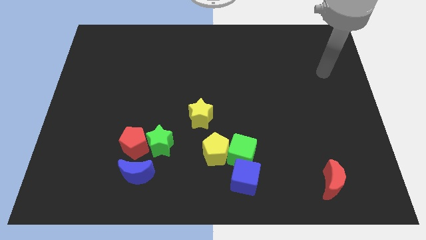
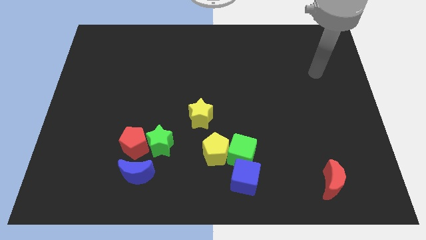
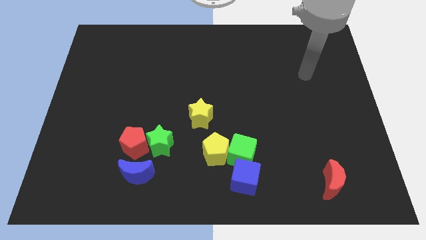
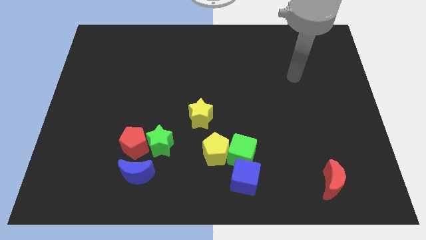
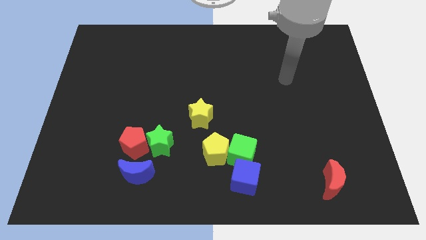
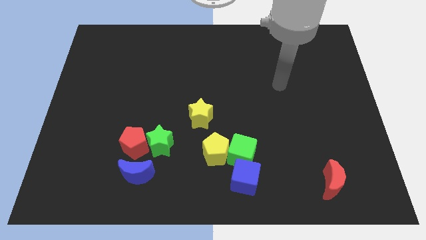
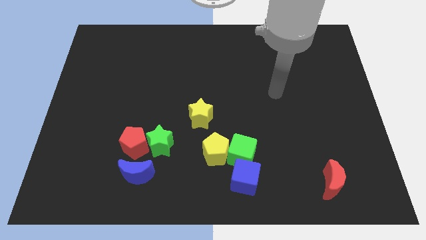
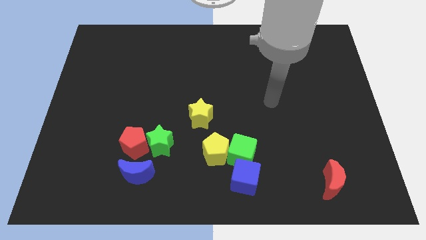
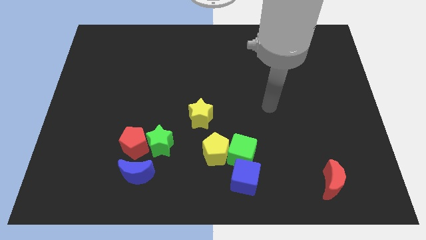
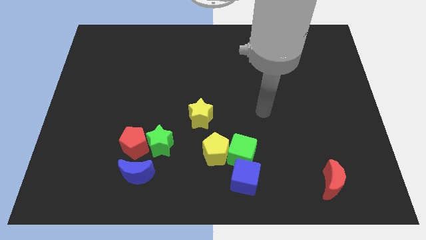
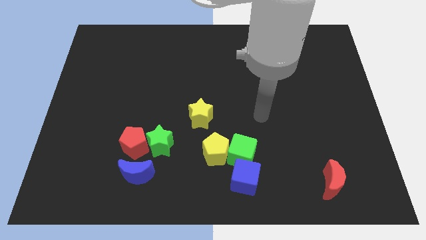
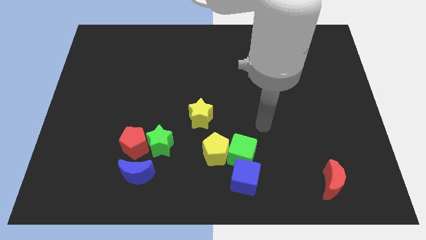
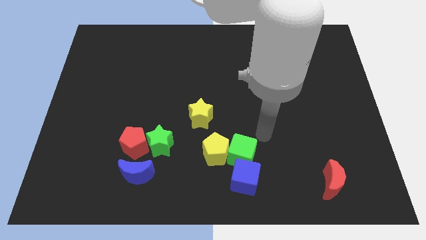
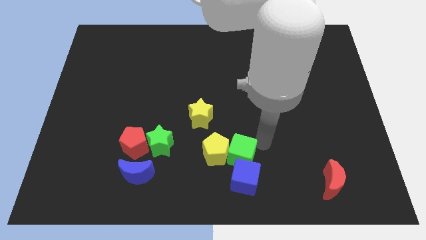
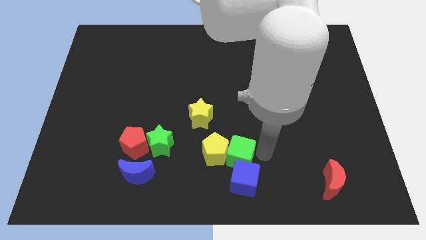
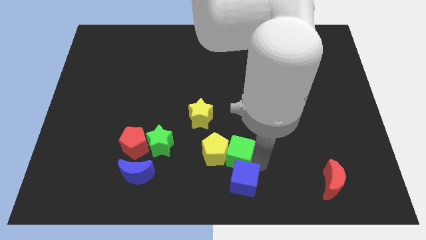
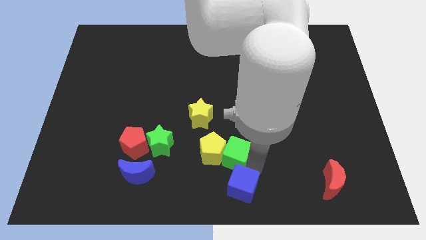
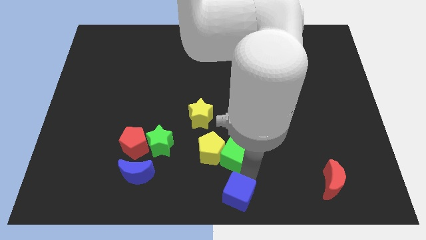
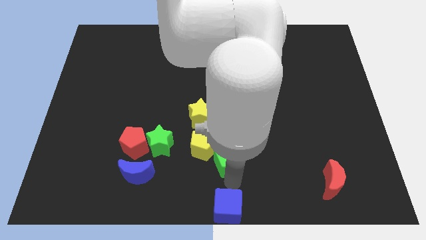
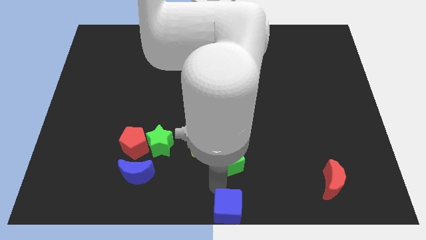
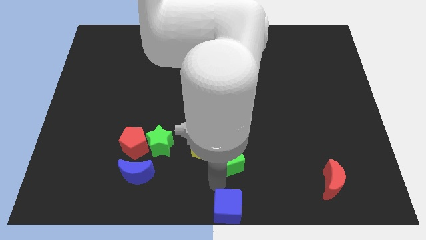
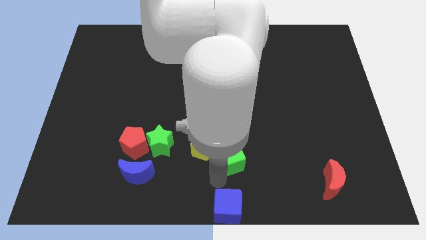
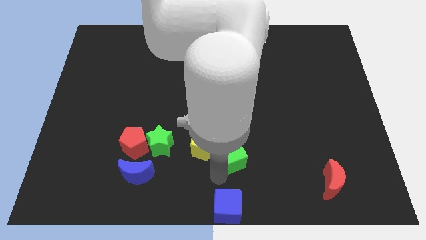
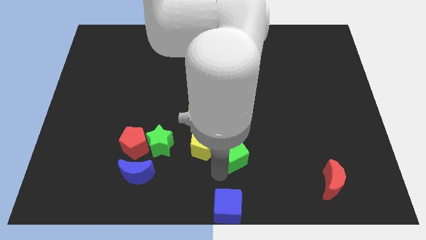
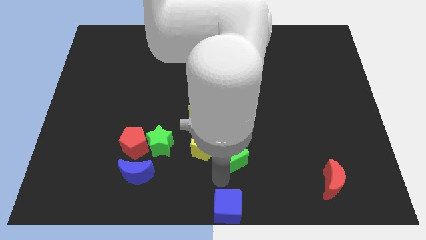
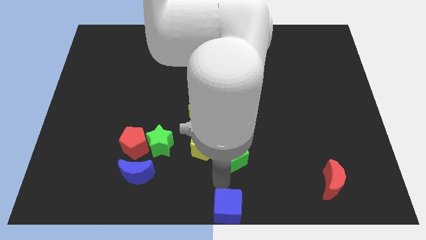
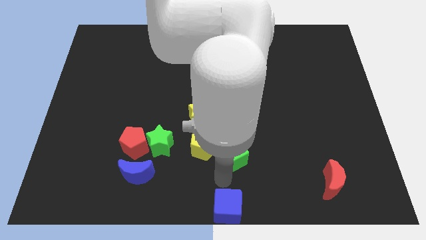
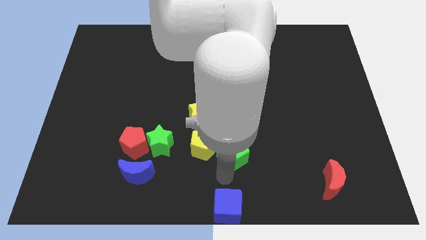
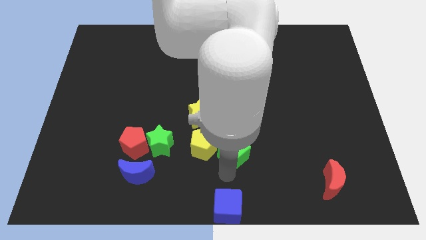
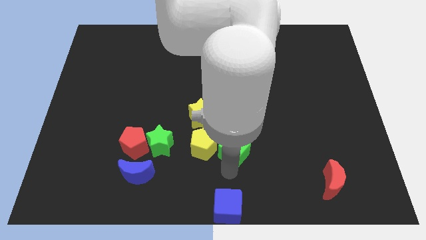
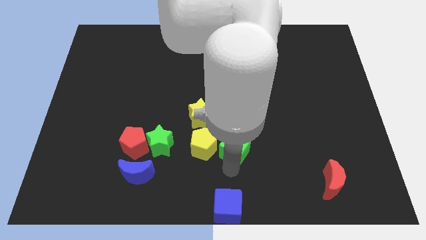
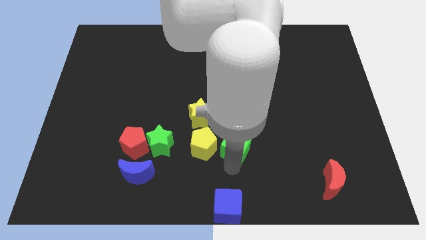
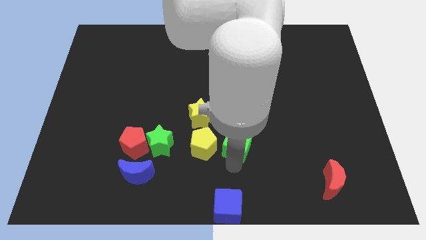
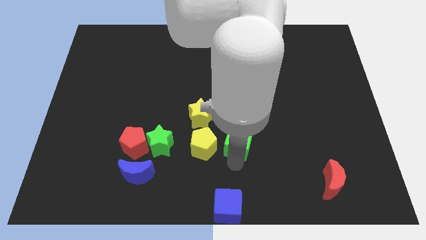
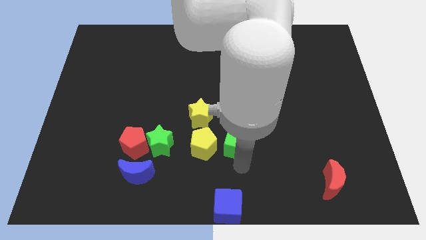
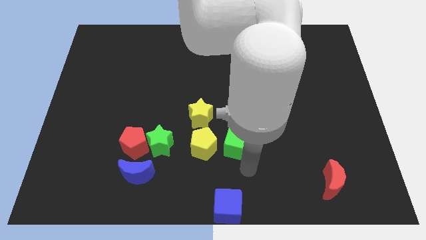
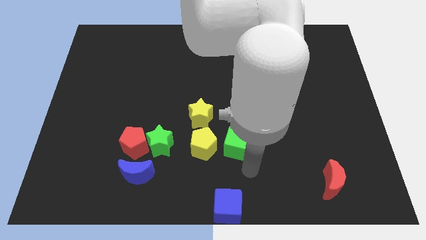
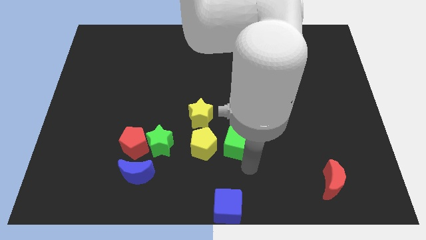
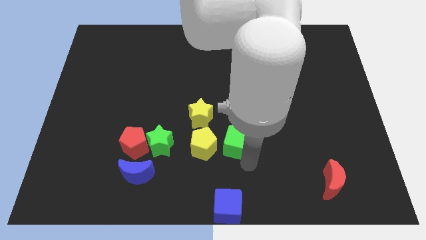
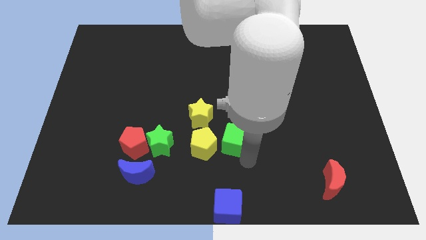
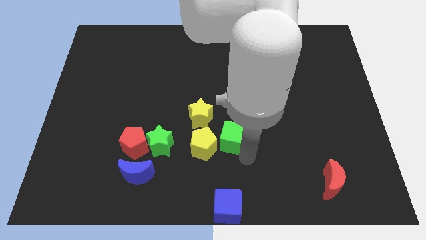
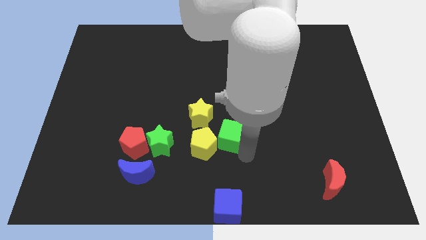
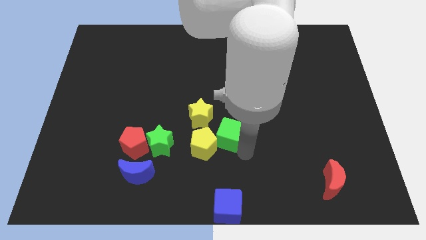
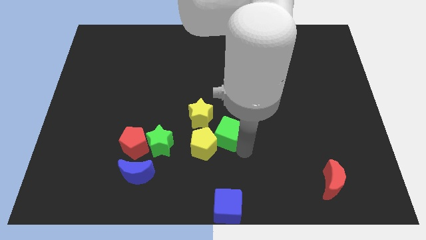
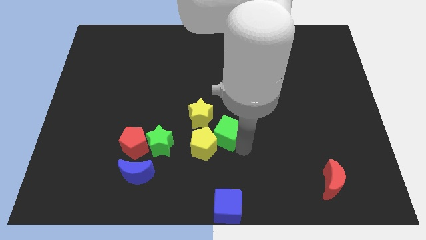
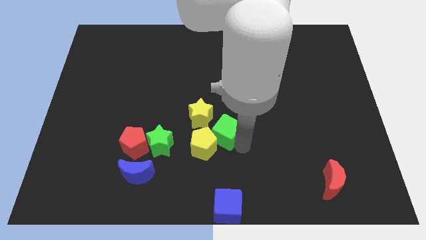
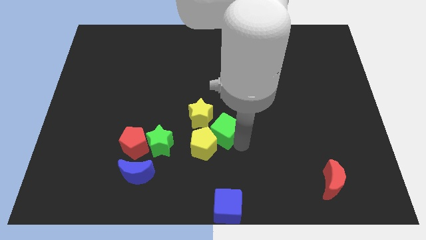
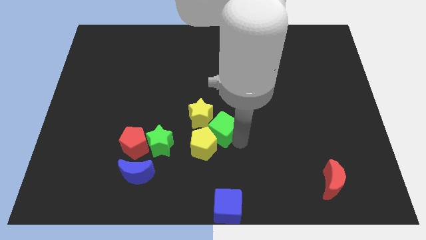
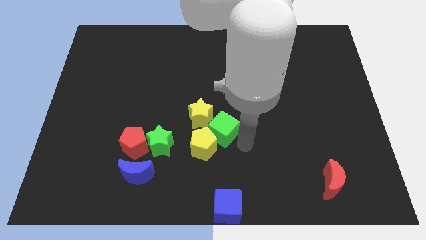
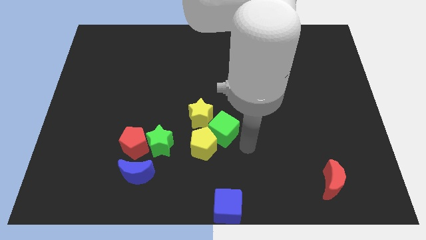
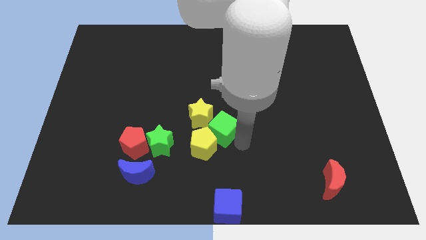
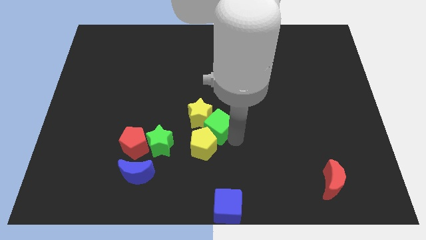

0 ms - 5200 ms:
put the green cube close to the yellow star
